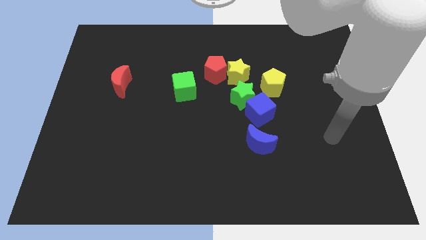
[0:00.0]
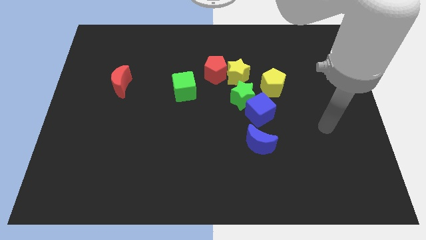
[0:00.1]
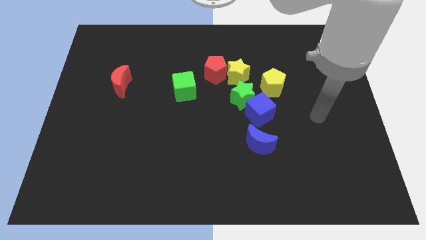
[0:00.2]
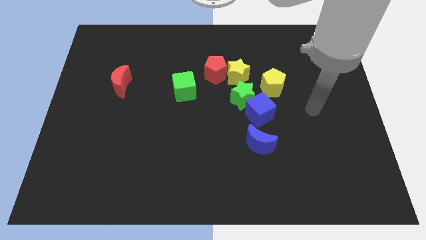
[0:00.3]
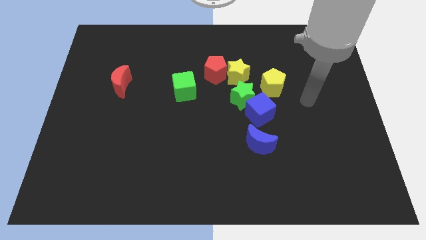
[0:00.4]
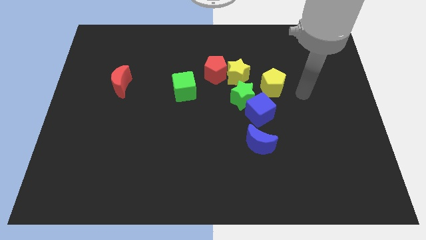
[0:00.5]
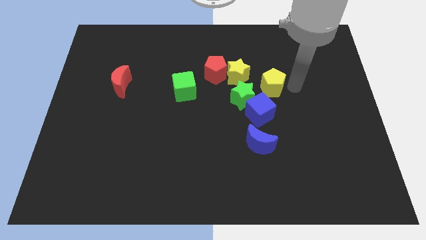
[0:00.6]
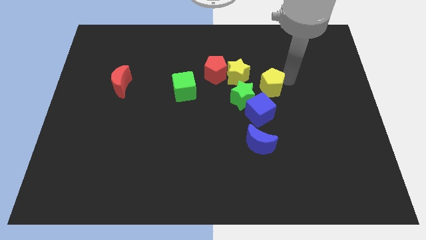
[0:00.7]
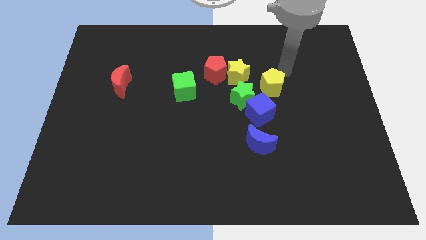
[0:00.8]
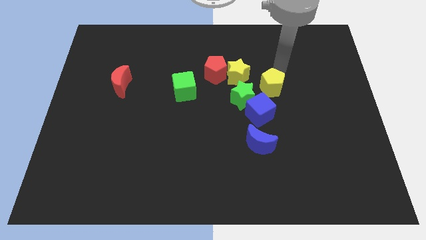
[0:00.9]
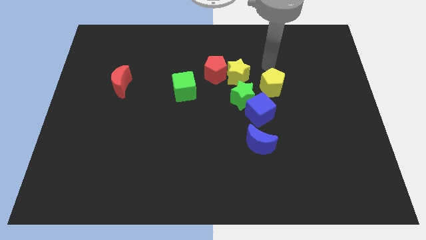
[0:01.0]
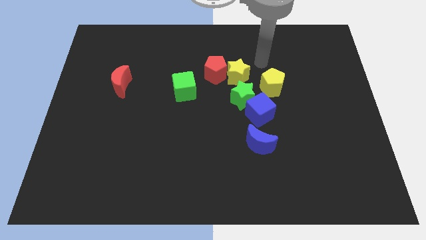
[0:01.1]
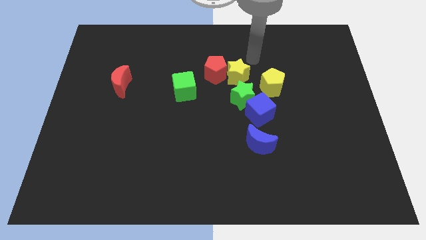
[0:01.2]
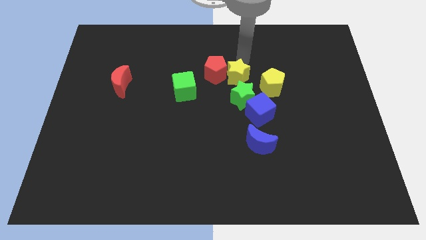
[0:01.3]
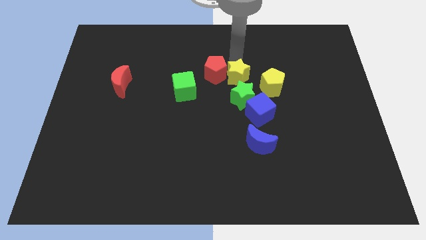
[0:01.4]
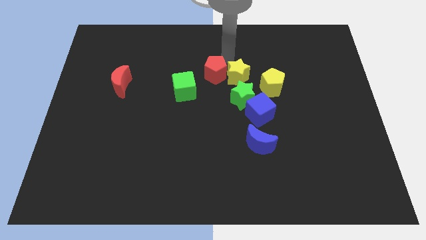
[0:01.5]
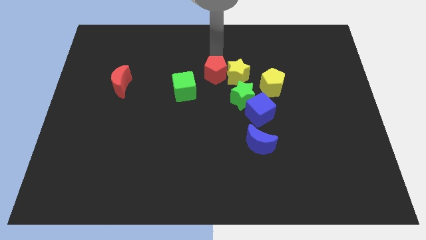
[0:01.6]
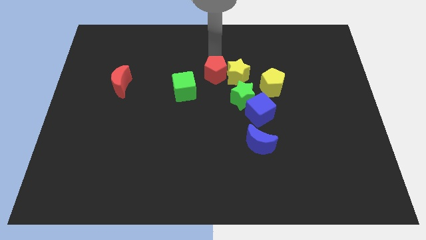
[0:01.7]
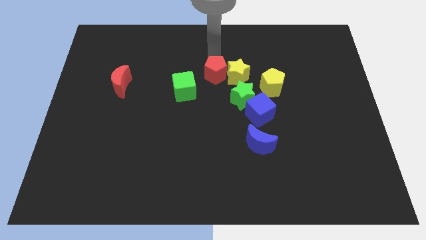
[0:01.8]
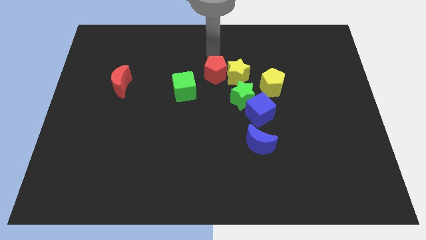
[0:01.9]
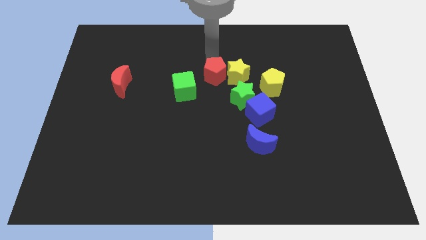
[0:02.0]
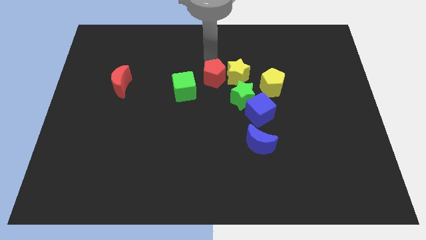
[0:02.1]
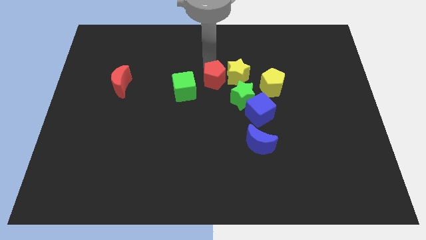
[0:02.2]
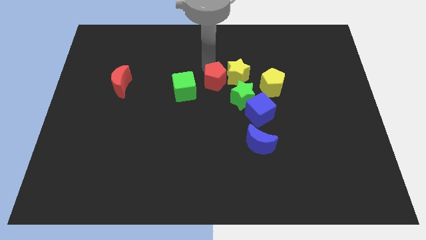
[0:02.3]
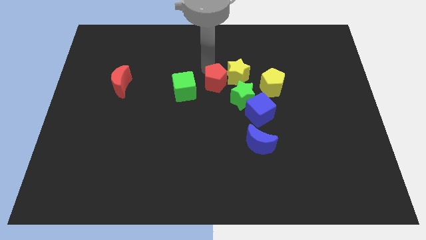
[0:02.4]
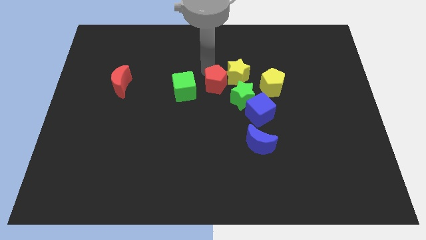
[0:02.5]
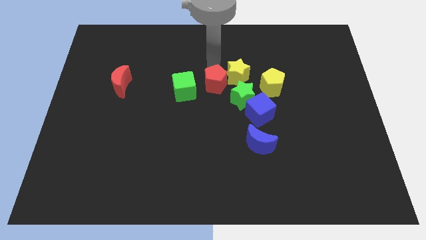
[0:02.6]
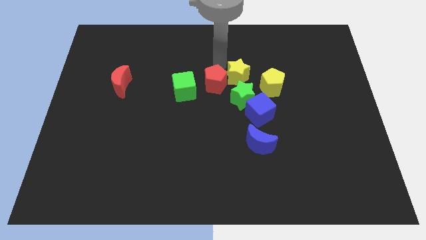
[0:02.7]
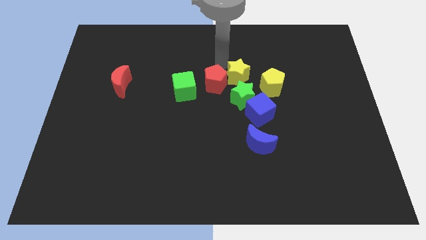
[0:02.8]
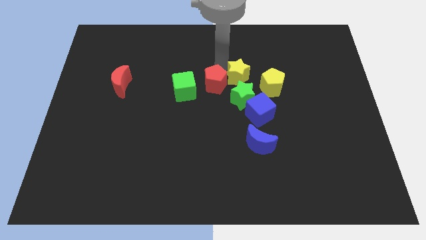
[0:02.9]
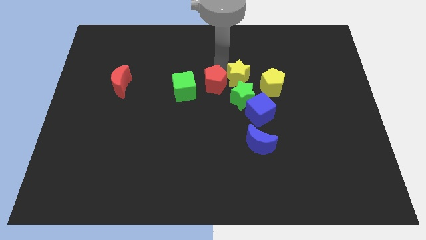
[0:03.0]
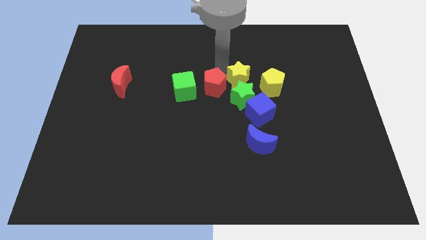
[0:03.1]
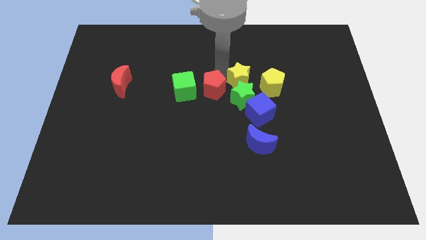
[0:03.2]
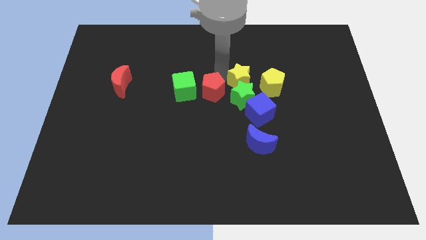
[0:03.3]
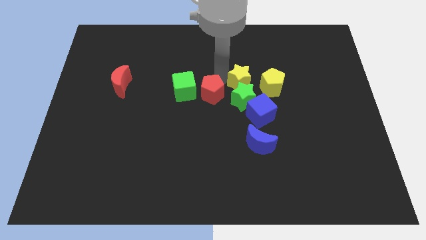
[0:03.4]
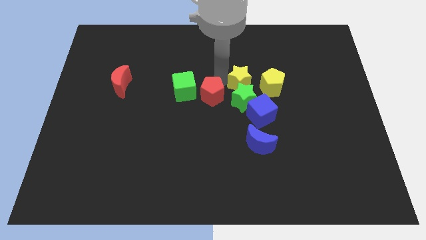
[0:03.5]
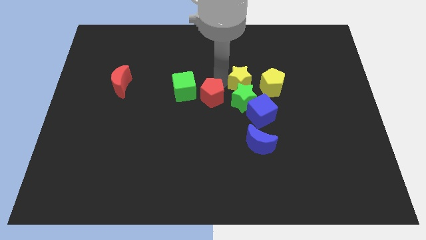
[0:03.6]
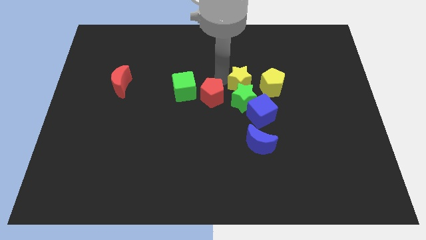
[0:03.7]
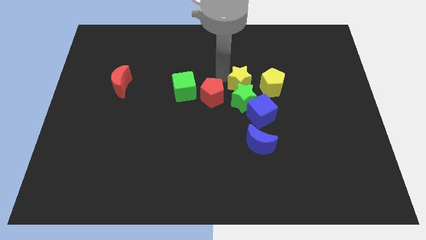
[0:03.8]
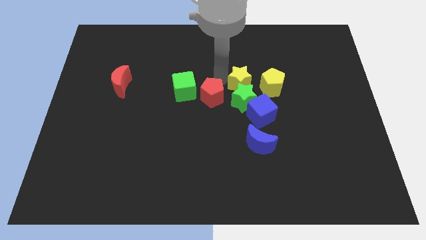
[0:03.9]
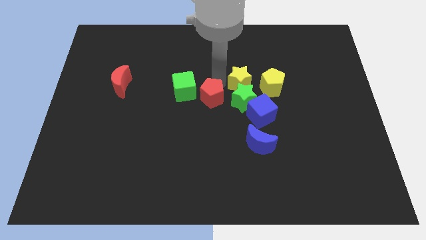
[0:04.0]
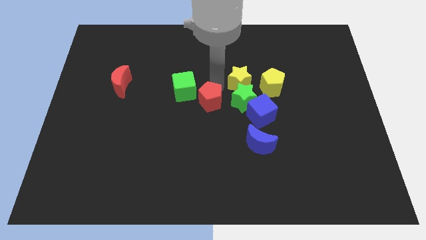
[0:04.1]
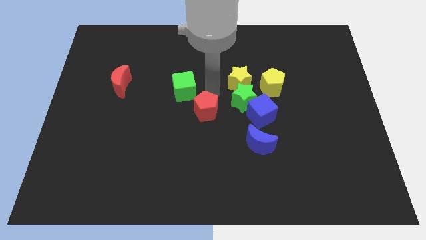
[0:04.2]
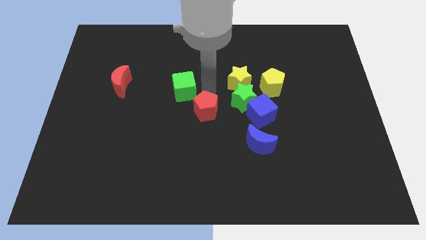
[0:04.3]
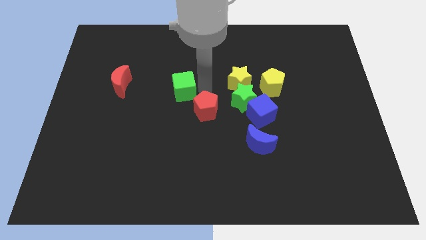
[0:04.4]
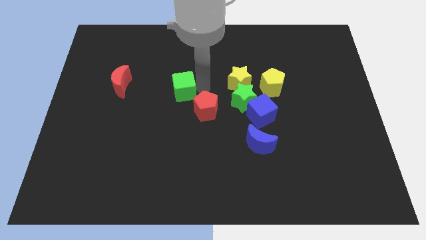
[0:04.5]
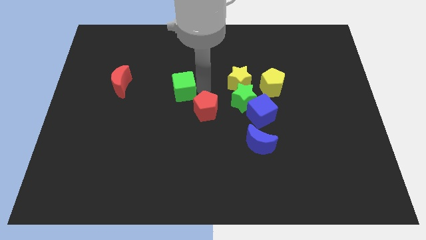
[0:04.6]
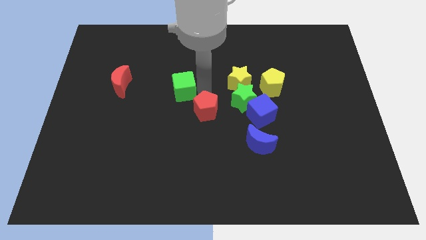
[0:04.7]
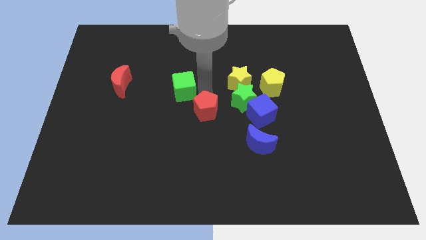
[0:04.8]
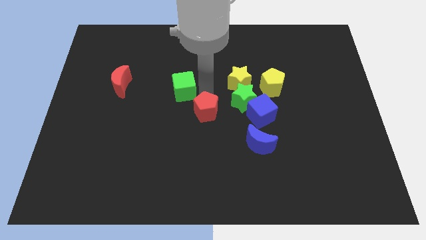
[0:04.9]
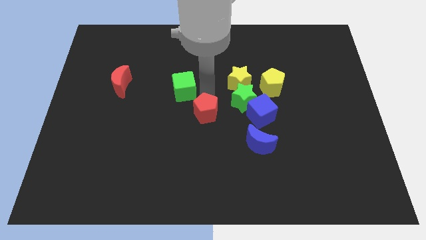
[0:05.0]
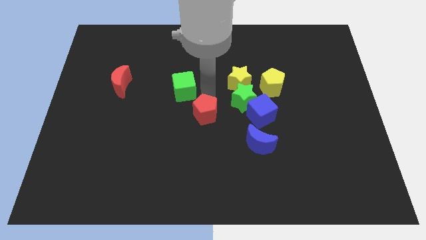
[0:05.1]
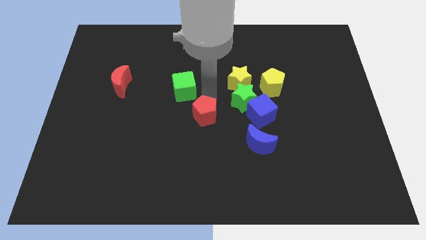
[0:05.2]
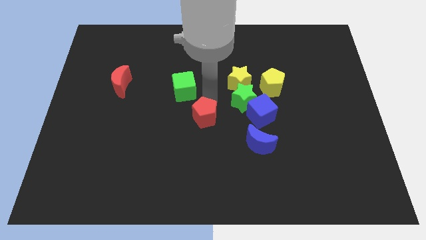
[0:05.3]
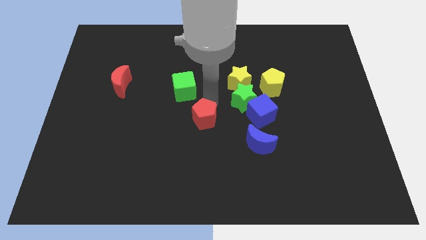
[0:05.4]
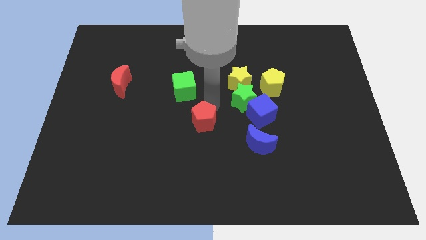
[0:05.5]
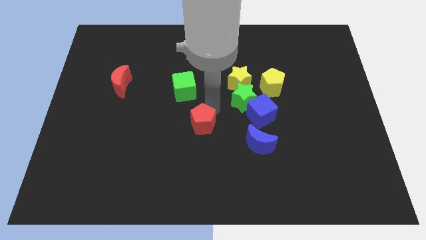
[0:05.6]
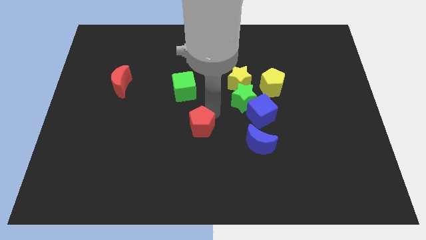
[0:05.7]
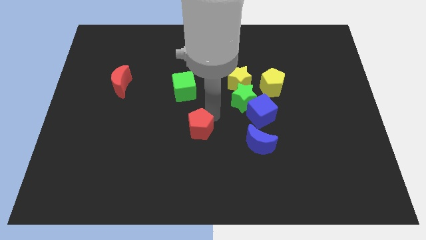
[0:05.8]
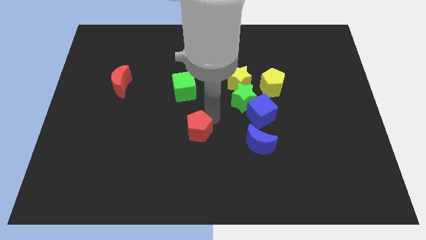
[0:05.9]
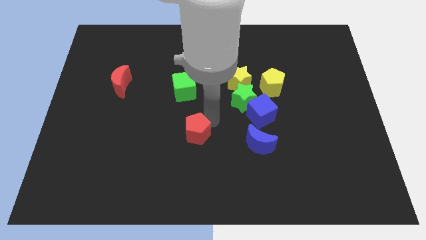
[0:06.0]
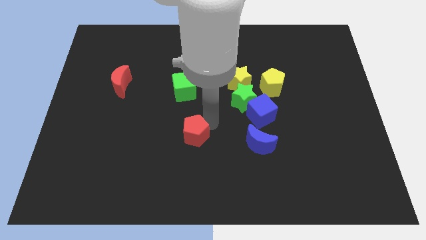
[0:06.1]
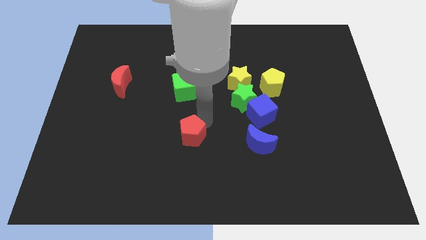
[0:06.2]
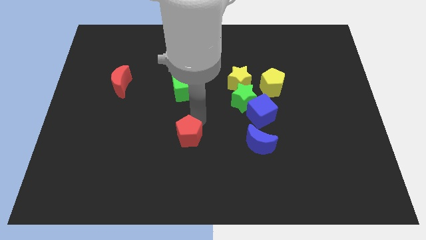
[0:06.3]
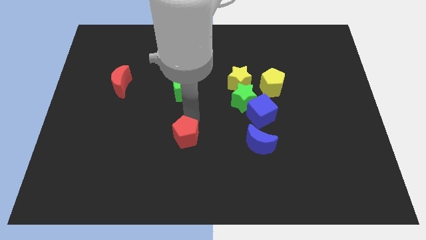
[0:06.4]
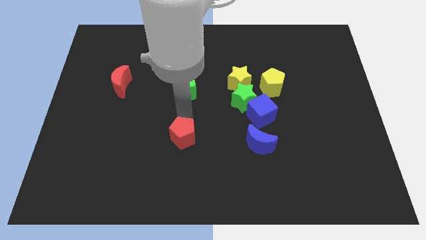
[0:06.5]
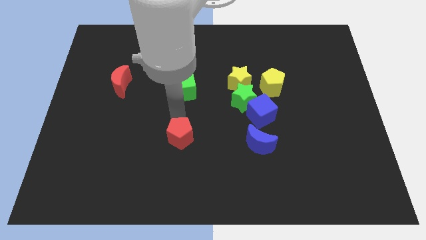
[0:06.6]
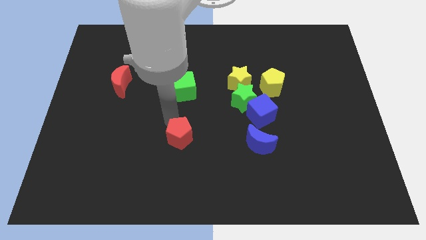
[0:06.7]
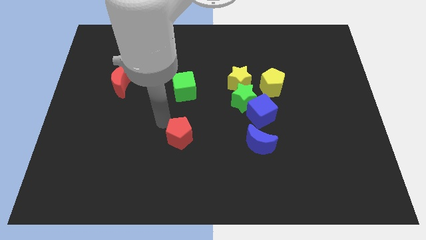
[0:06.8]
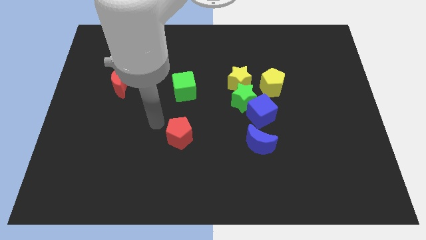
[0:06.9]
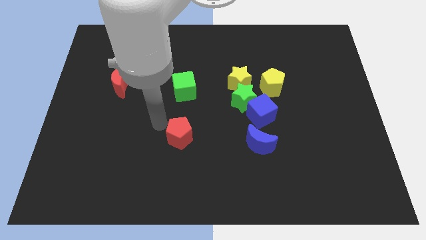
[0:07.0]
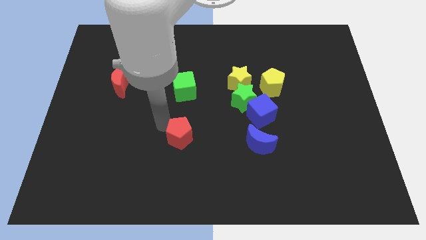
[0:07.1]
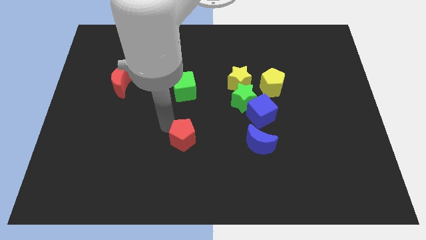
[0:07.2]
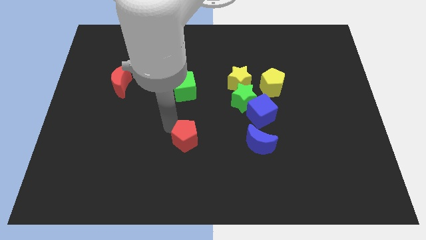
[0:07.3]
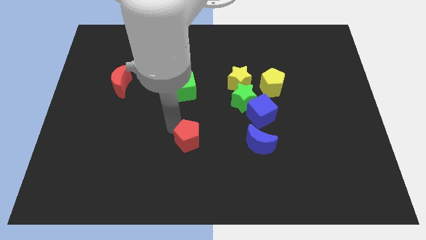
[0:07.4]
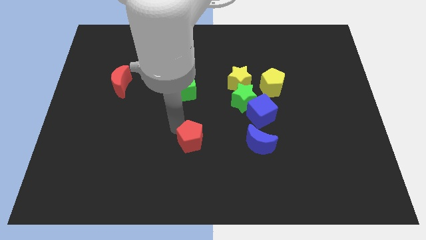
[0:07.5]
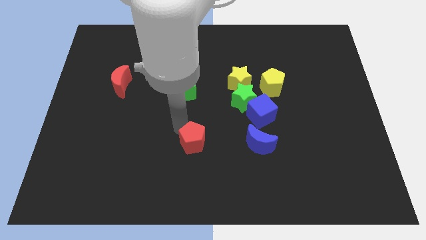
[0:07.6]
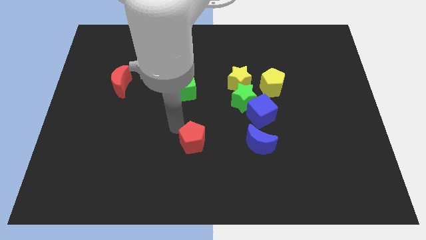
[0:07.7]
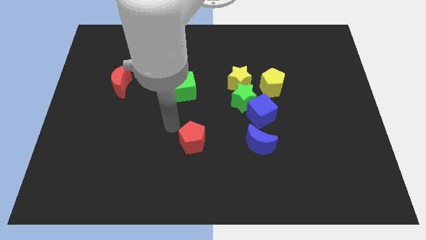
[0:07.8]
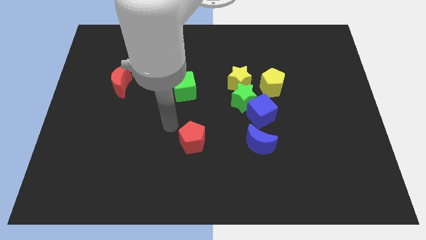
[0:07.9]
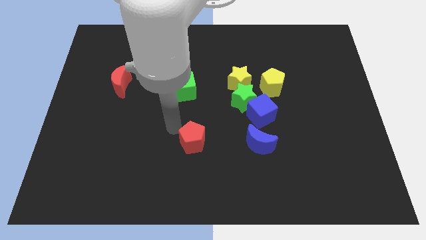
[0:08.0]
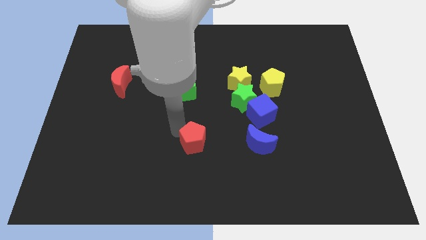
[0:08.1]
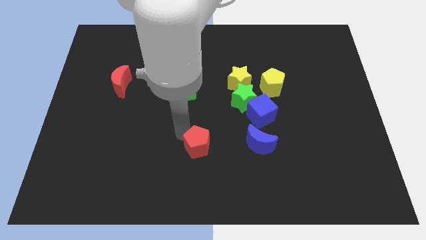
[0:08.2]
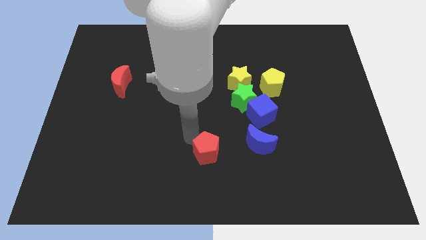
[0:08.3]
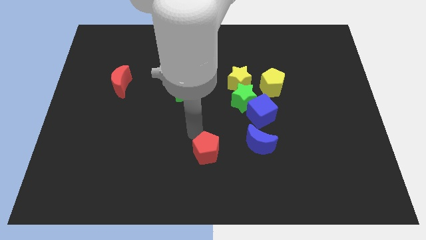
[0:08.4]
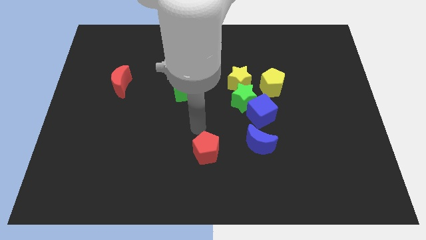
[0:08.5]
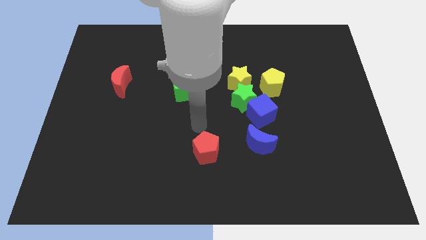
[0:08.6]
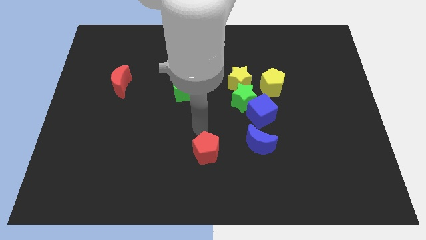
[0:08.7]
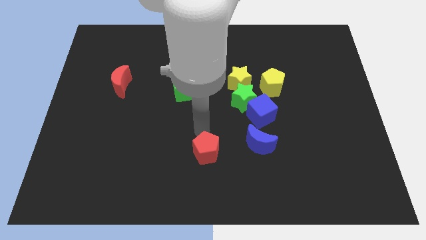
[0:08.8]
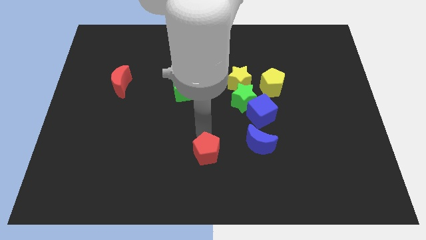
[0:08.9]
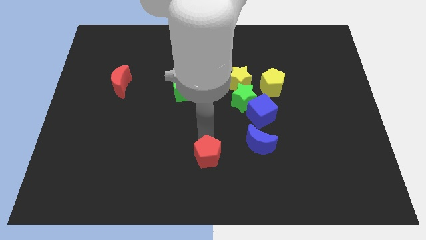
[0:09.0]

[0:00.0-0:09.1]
slide the red pentagon to the bottom side
